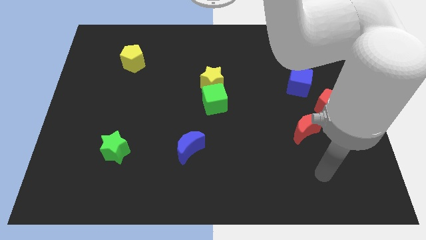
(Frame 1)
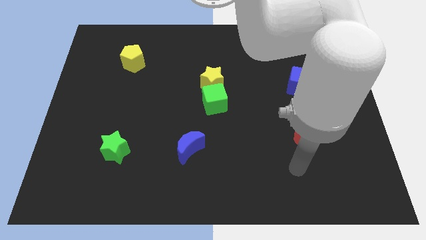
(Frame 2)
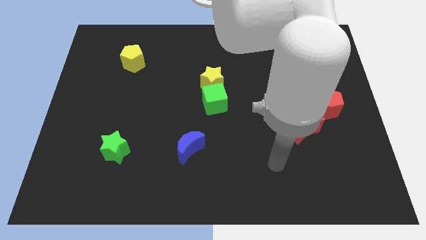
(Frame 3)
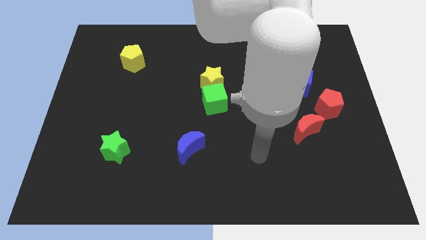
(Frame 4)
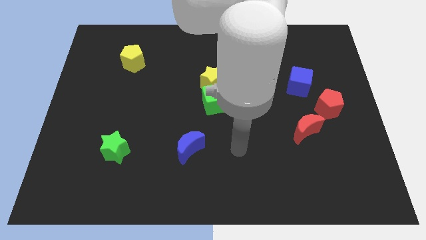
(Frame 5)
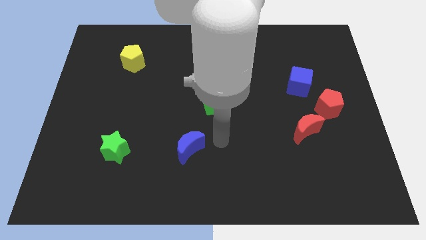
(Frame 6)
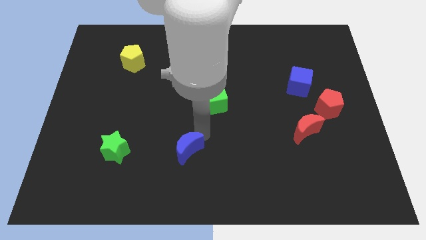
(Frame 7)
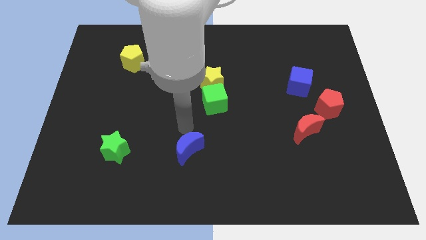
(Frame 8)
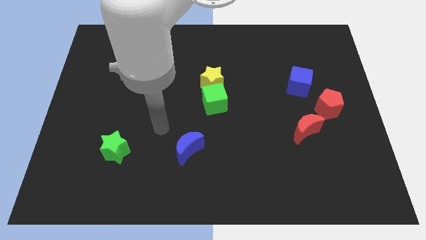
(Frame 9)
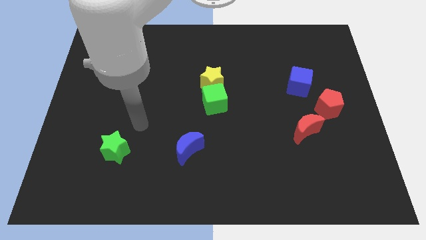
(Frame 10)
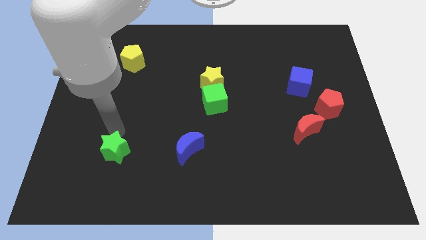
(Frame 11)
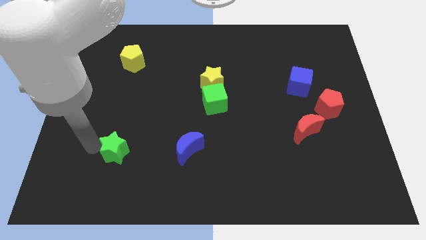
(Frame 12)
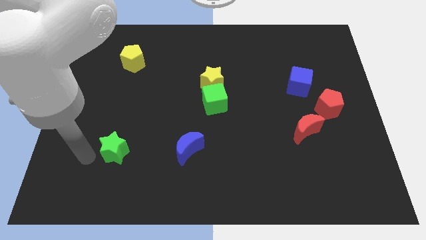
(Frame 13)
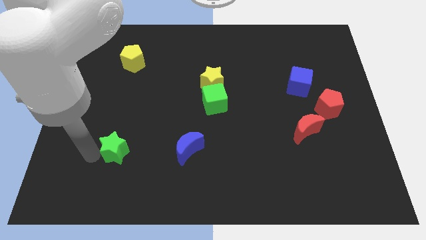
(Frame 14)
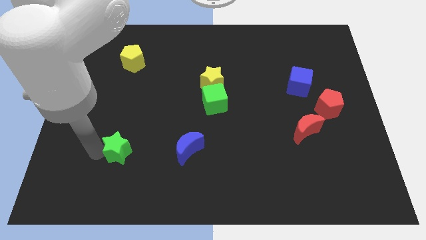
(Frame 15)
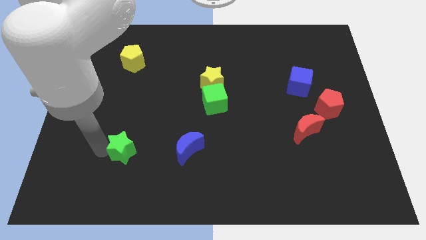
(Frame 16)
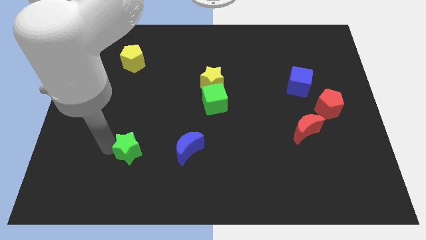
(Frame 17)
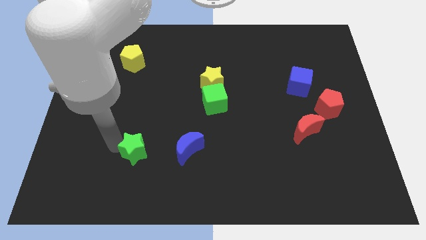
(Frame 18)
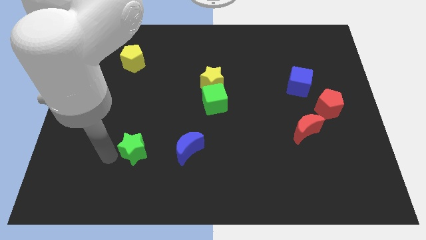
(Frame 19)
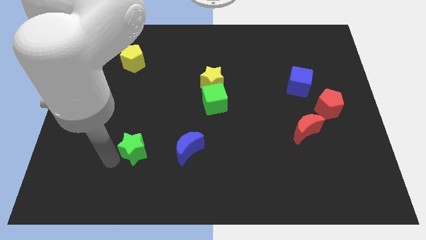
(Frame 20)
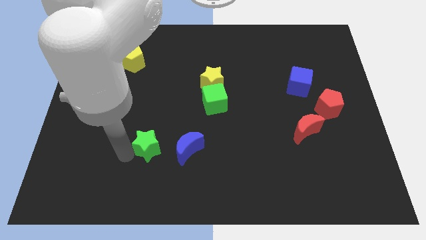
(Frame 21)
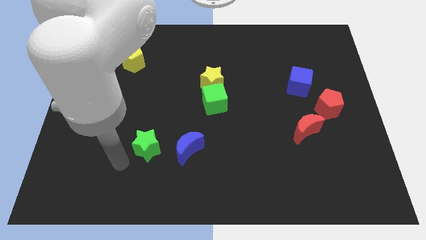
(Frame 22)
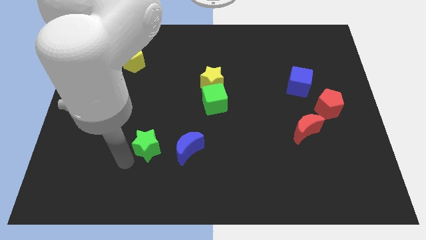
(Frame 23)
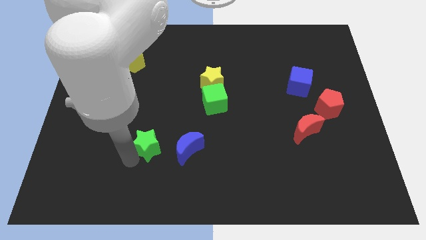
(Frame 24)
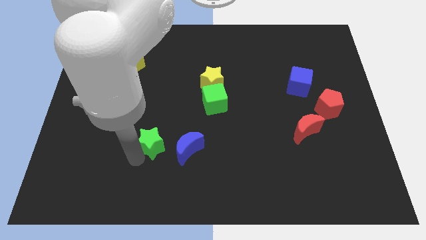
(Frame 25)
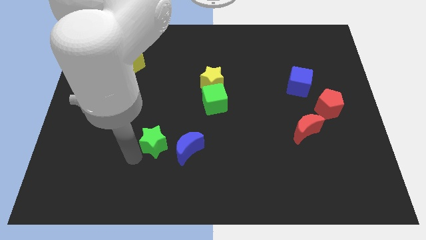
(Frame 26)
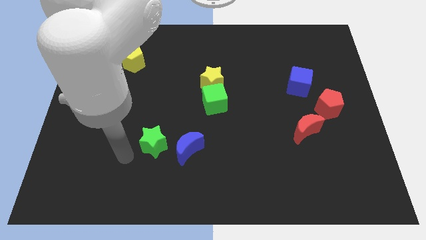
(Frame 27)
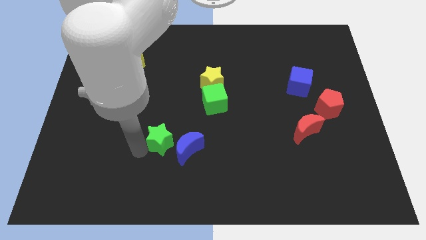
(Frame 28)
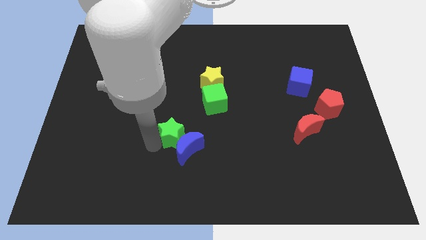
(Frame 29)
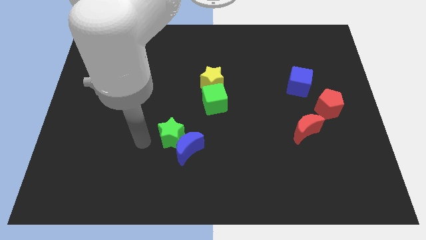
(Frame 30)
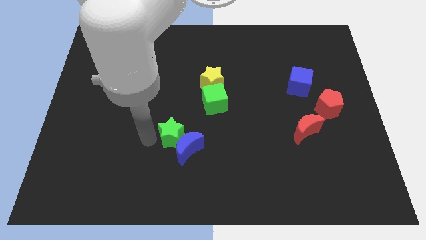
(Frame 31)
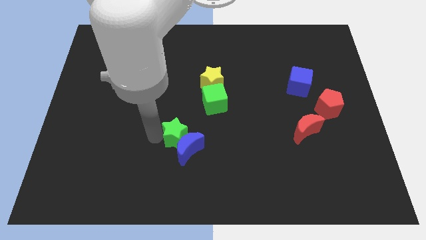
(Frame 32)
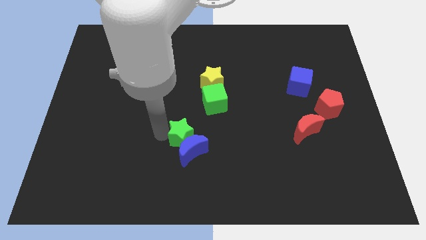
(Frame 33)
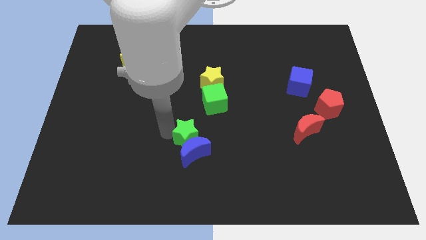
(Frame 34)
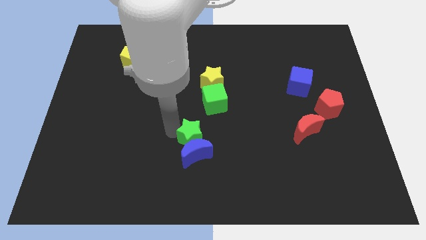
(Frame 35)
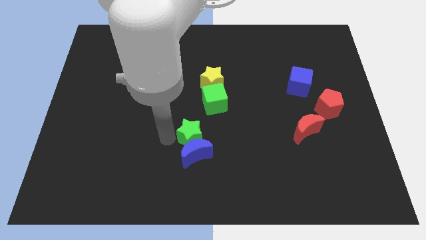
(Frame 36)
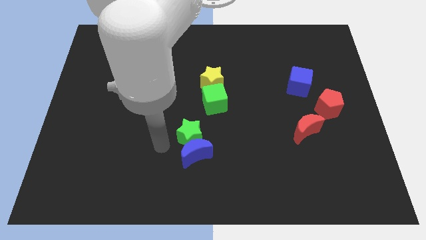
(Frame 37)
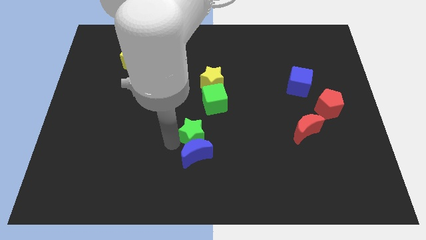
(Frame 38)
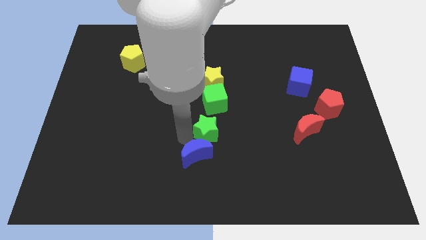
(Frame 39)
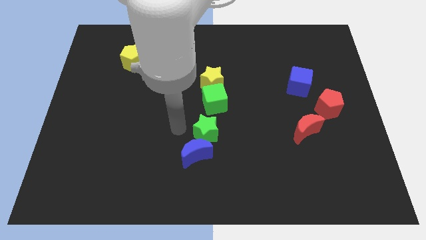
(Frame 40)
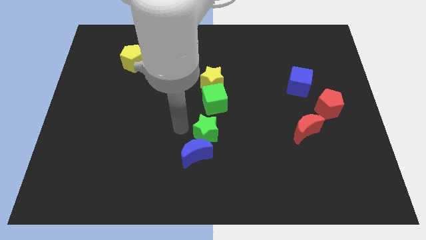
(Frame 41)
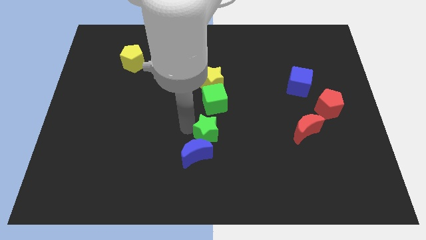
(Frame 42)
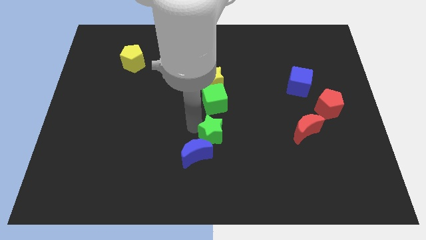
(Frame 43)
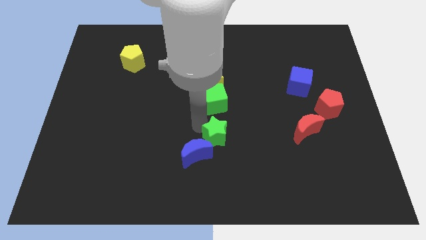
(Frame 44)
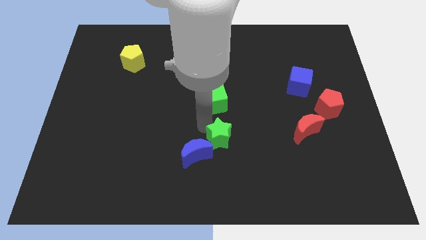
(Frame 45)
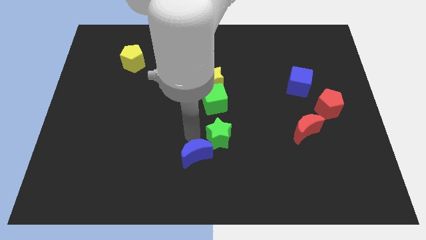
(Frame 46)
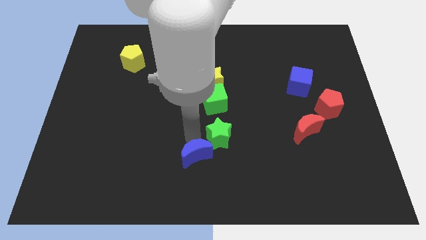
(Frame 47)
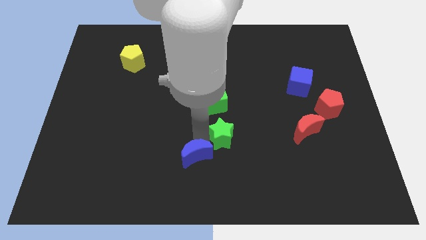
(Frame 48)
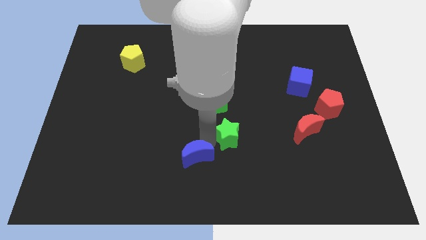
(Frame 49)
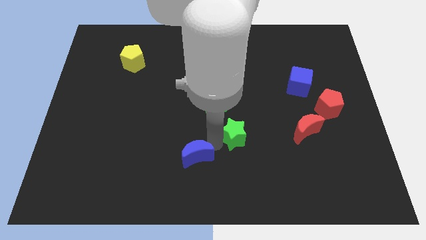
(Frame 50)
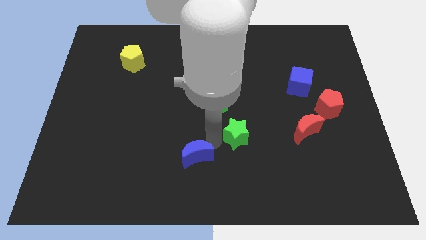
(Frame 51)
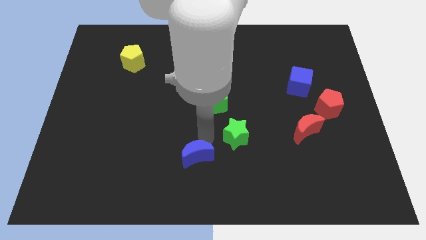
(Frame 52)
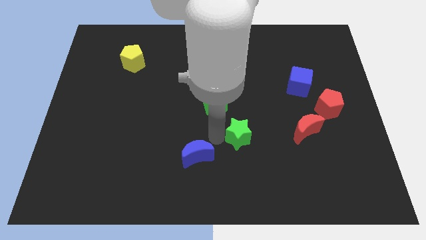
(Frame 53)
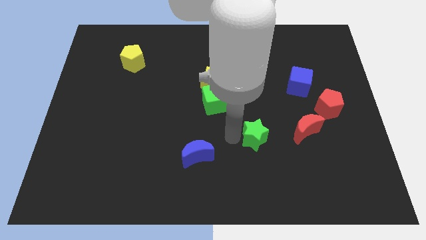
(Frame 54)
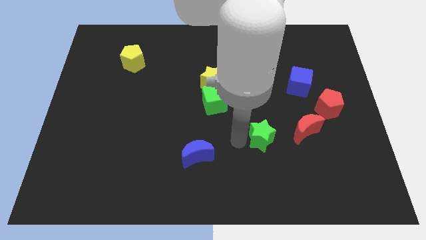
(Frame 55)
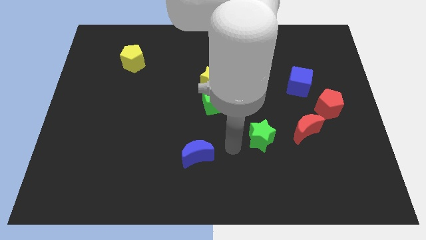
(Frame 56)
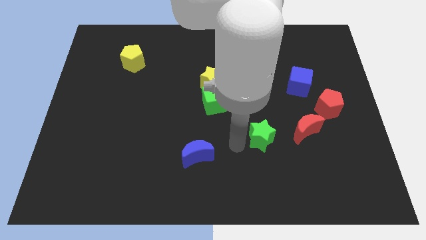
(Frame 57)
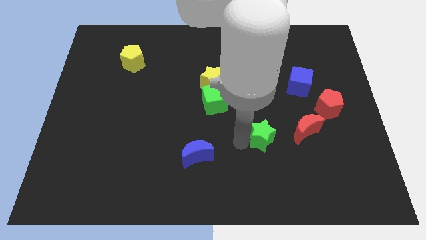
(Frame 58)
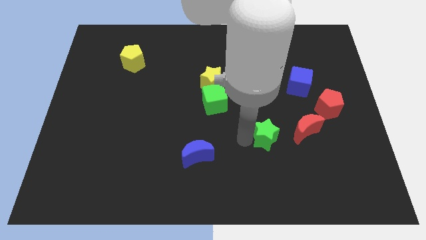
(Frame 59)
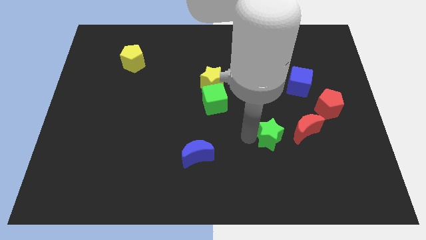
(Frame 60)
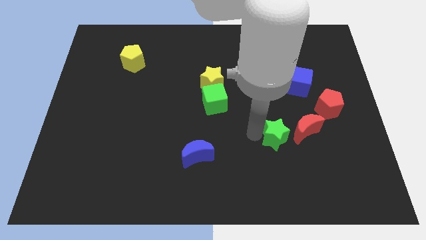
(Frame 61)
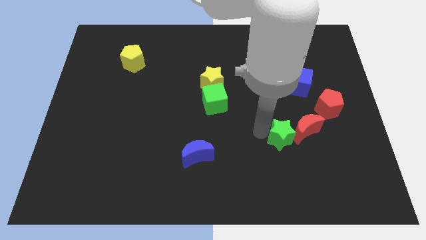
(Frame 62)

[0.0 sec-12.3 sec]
put the green star close to the red moon

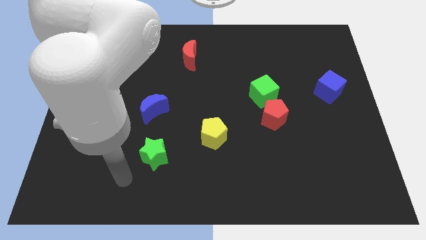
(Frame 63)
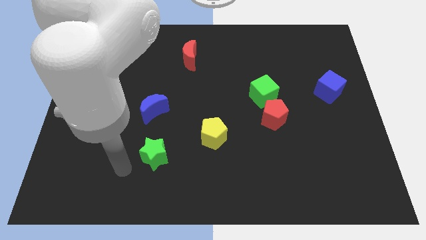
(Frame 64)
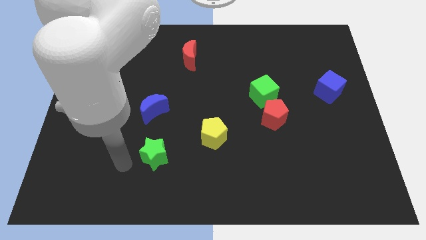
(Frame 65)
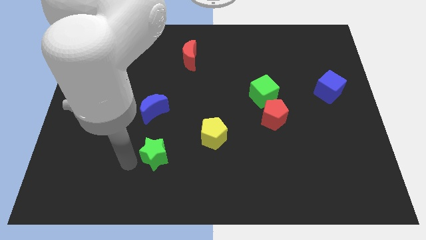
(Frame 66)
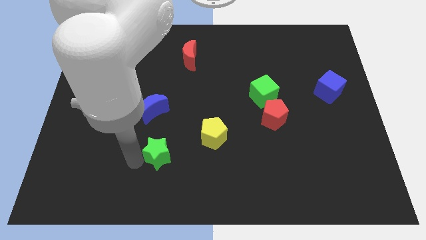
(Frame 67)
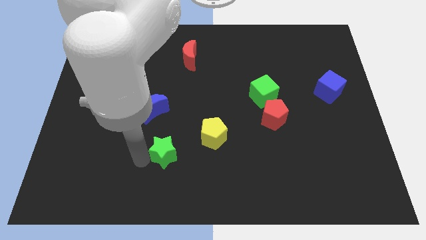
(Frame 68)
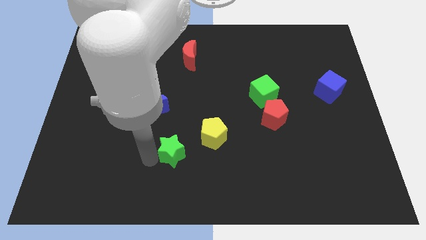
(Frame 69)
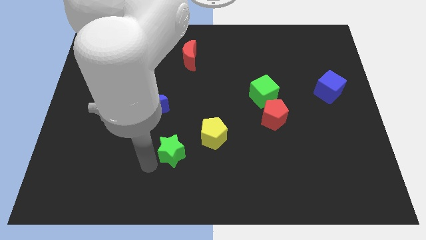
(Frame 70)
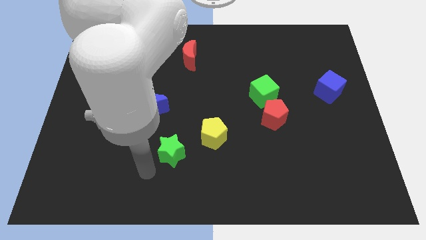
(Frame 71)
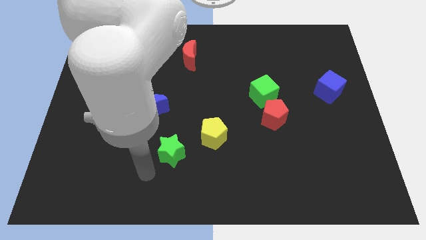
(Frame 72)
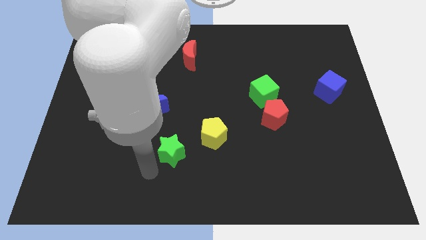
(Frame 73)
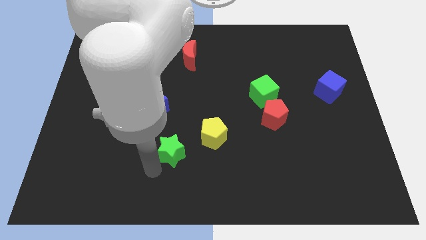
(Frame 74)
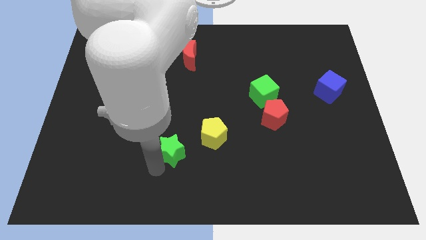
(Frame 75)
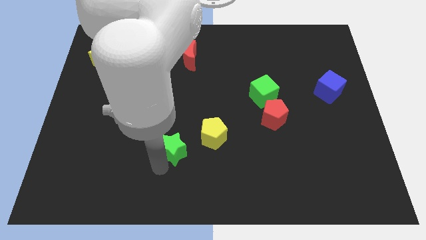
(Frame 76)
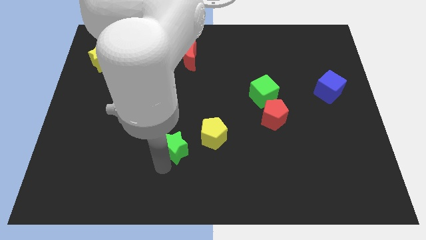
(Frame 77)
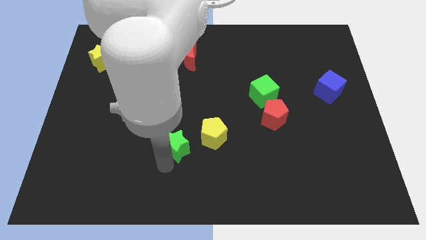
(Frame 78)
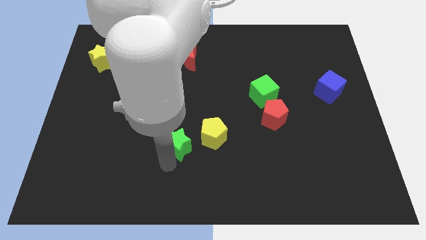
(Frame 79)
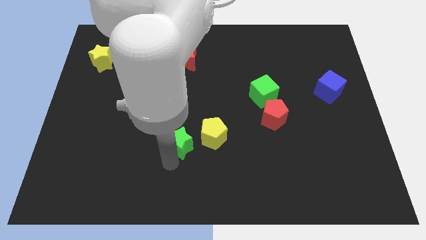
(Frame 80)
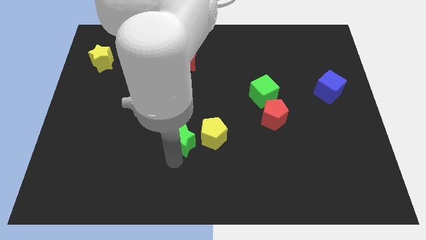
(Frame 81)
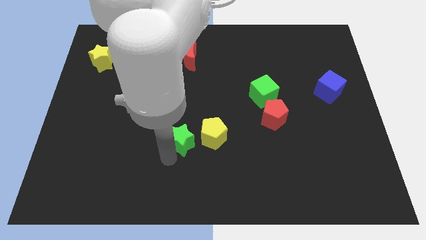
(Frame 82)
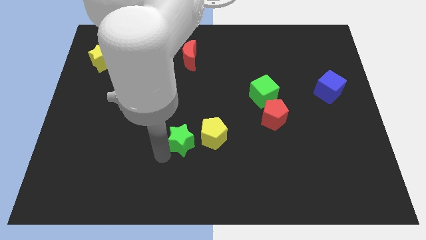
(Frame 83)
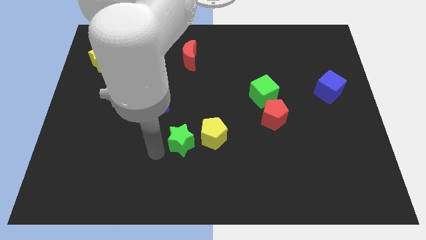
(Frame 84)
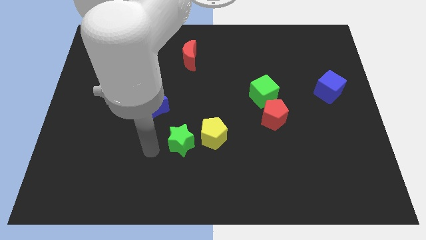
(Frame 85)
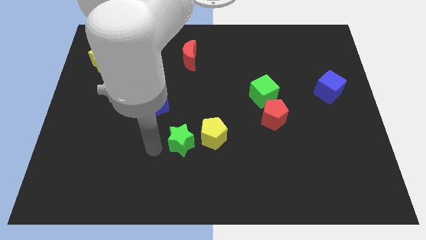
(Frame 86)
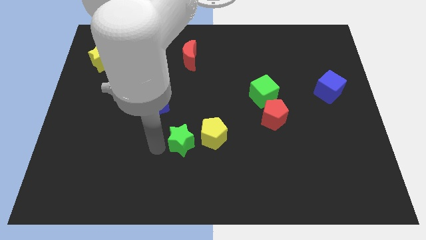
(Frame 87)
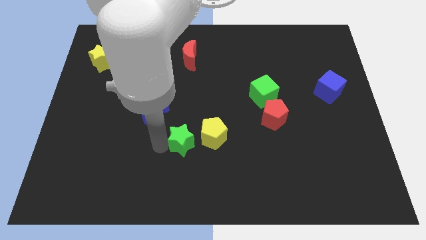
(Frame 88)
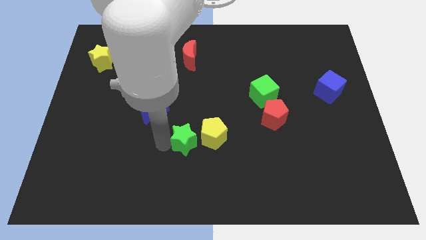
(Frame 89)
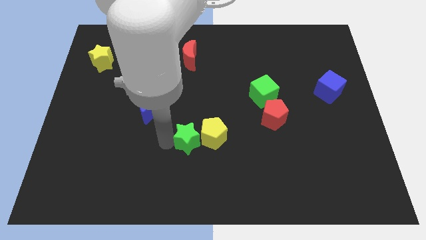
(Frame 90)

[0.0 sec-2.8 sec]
move the green star towards the yellow pentagon
